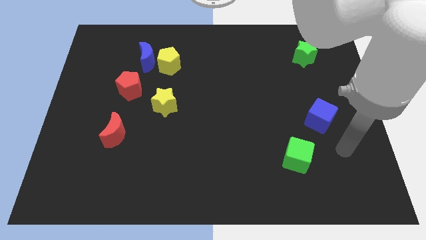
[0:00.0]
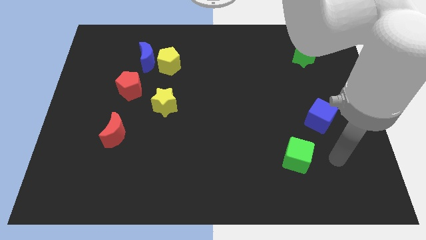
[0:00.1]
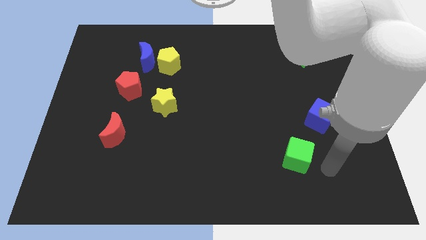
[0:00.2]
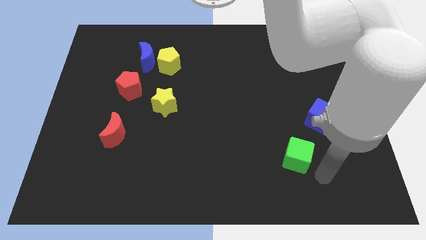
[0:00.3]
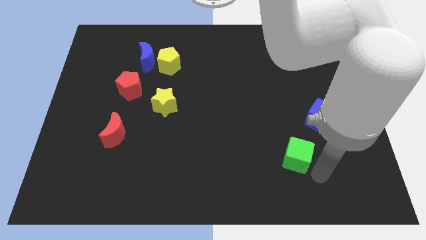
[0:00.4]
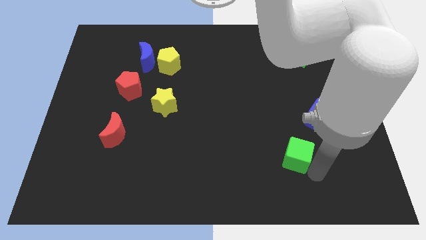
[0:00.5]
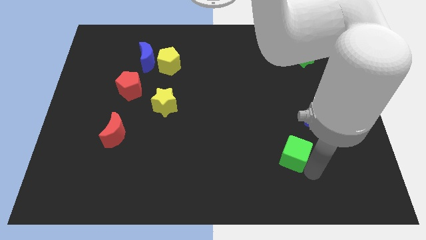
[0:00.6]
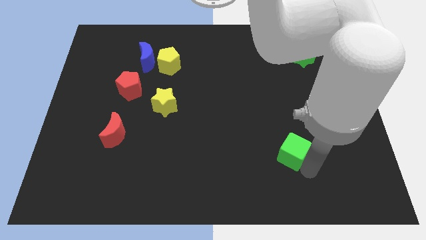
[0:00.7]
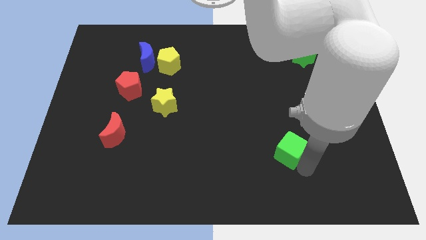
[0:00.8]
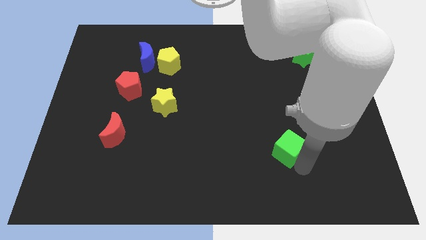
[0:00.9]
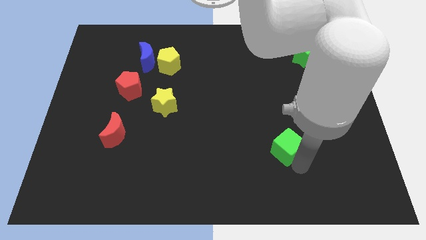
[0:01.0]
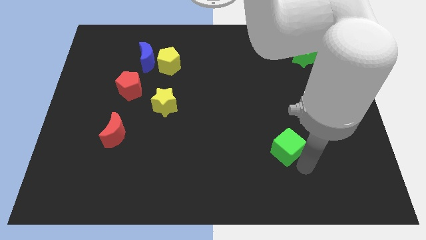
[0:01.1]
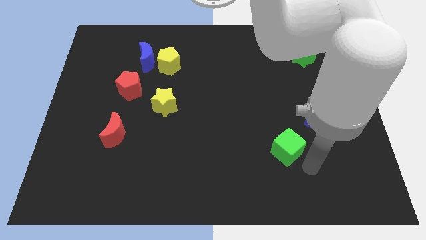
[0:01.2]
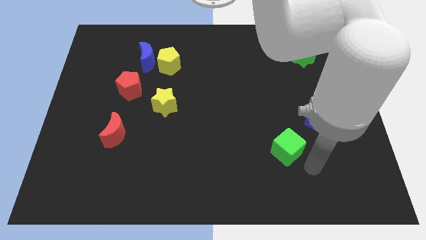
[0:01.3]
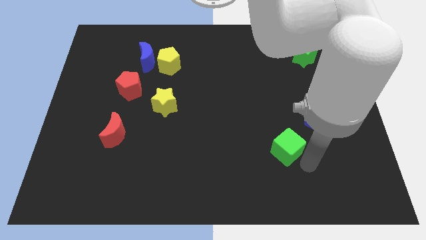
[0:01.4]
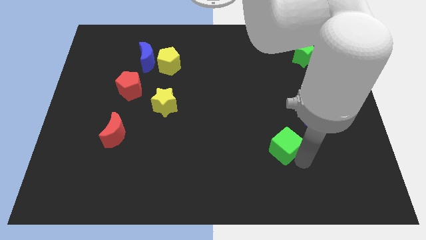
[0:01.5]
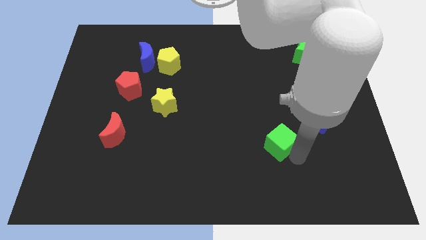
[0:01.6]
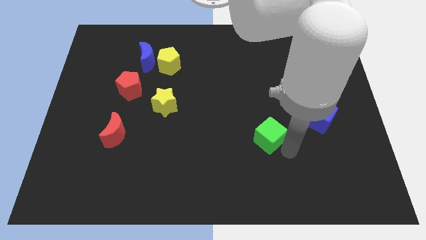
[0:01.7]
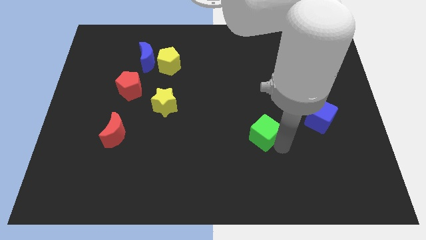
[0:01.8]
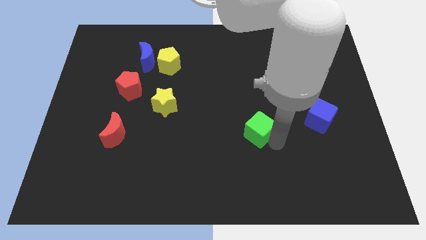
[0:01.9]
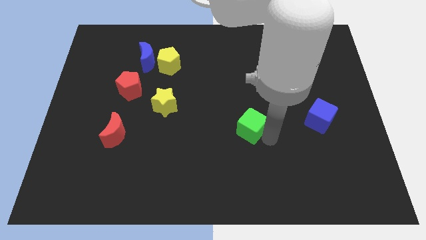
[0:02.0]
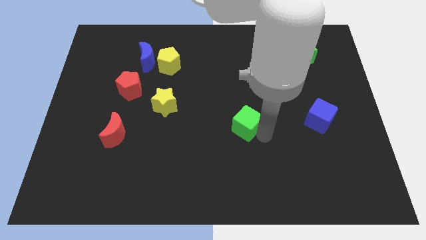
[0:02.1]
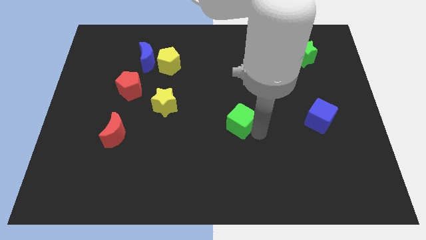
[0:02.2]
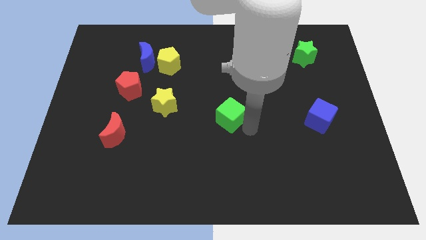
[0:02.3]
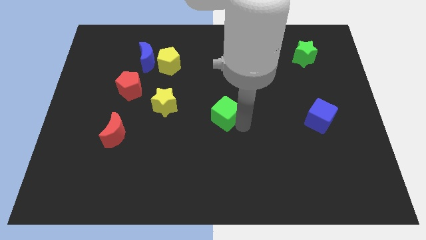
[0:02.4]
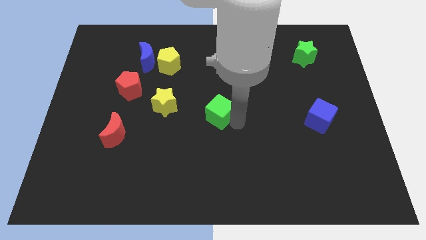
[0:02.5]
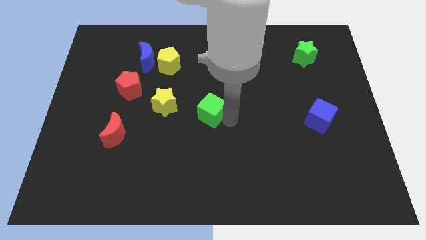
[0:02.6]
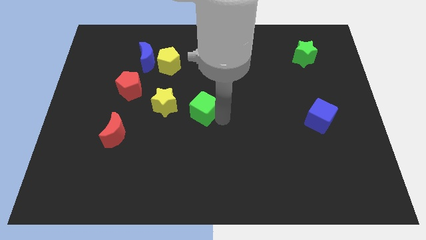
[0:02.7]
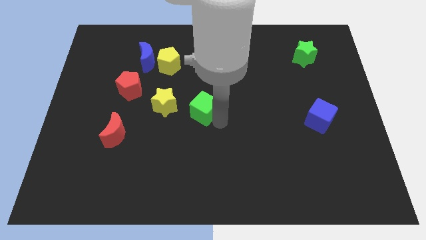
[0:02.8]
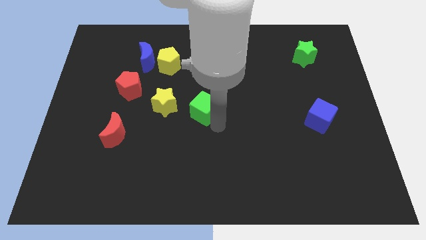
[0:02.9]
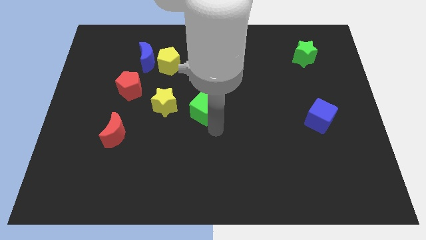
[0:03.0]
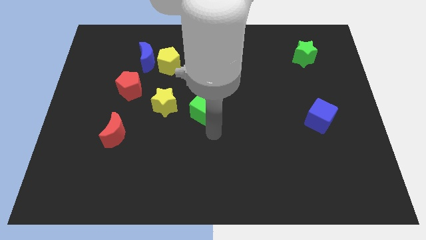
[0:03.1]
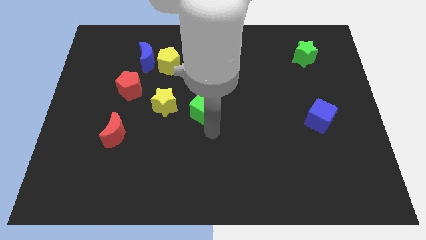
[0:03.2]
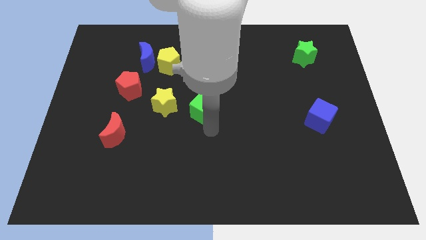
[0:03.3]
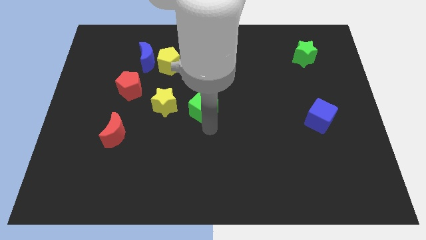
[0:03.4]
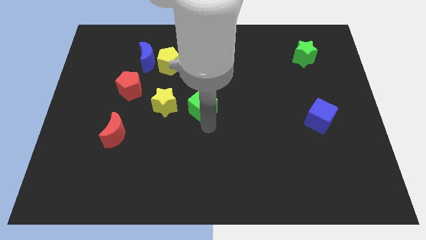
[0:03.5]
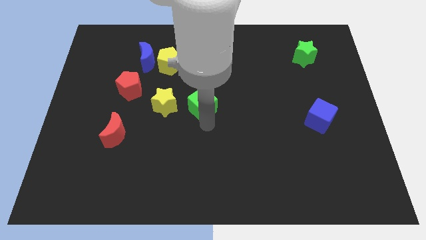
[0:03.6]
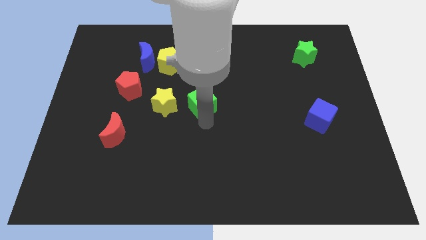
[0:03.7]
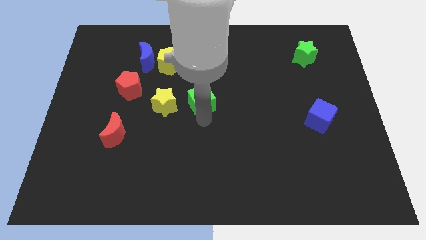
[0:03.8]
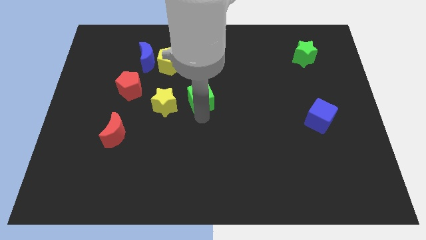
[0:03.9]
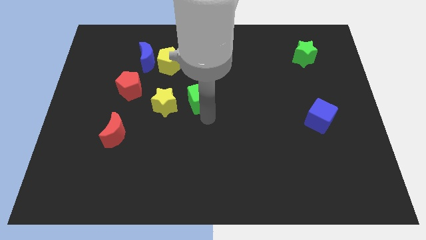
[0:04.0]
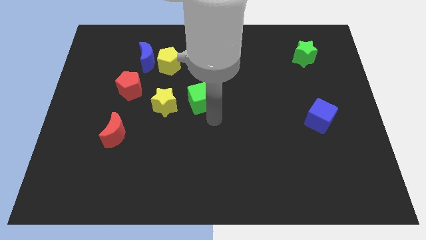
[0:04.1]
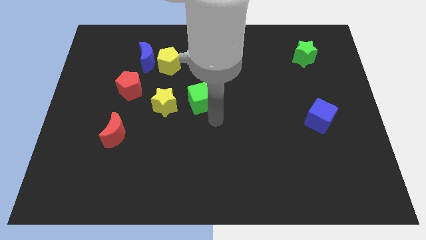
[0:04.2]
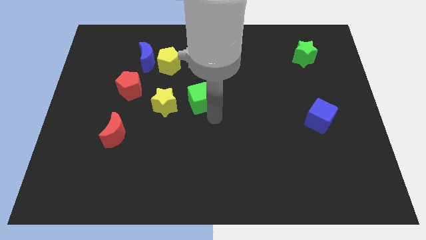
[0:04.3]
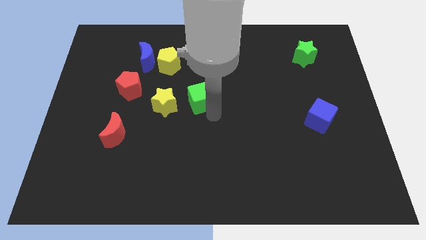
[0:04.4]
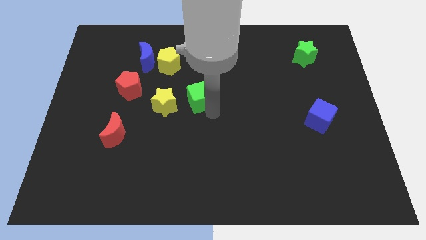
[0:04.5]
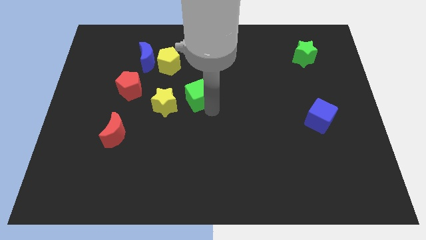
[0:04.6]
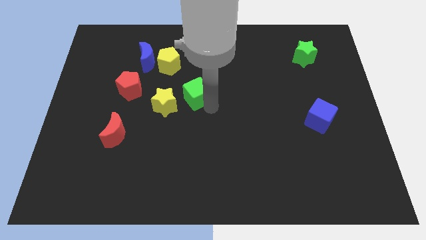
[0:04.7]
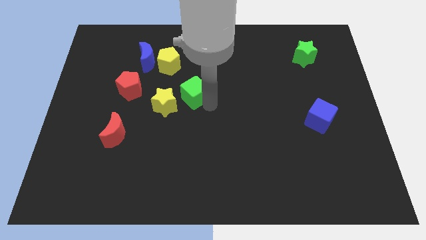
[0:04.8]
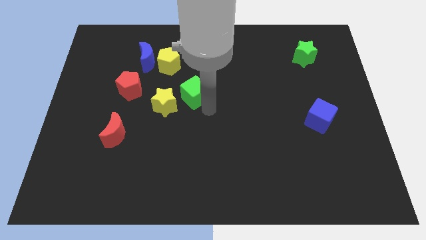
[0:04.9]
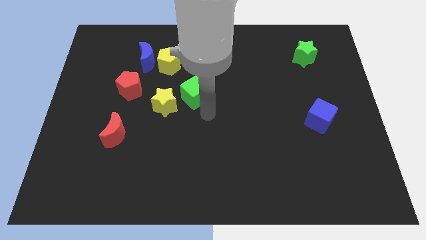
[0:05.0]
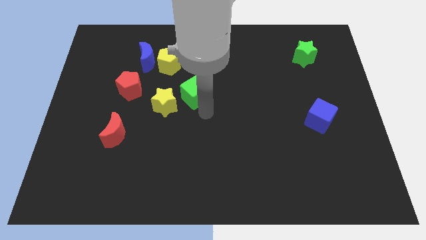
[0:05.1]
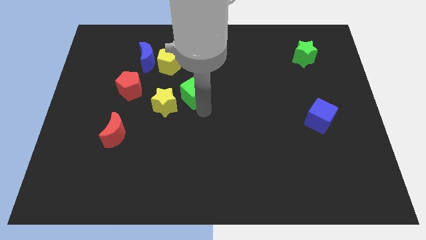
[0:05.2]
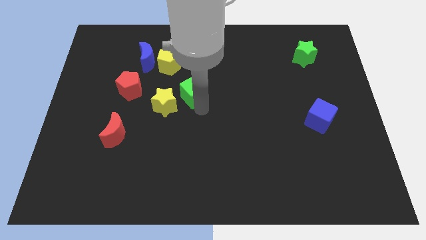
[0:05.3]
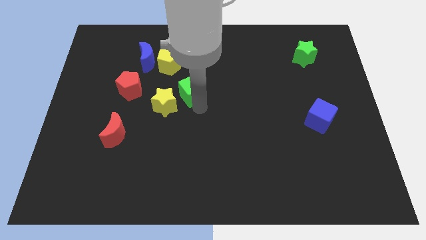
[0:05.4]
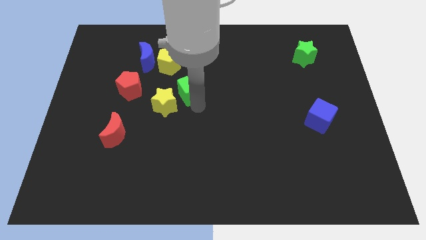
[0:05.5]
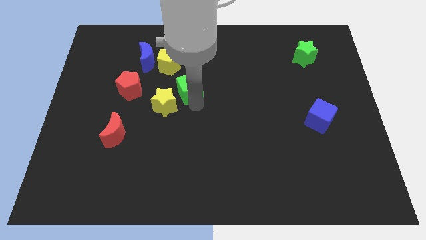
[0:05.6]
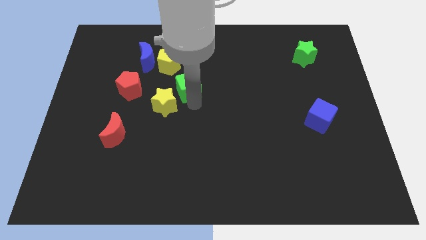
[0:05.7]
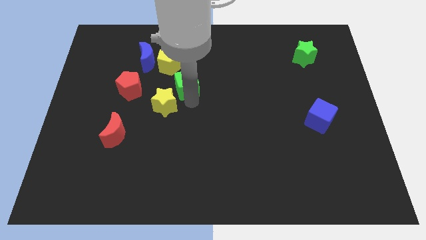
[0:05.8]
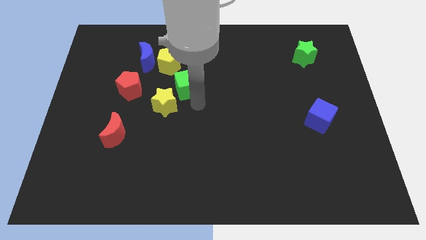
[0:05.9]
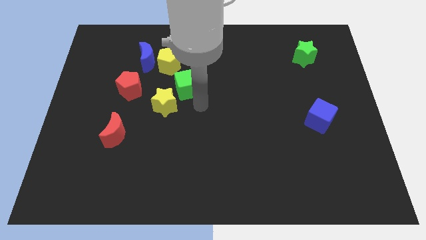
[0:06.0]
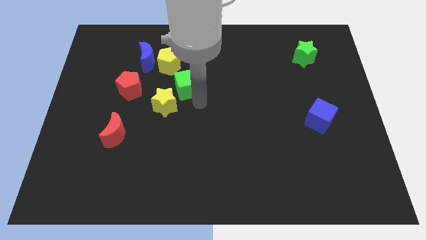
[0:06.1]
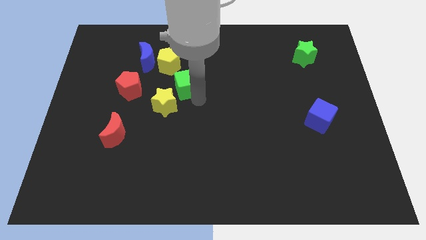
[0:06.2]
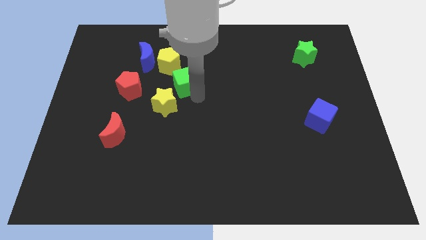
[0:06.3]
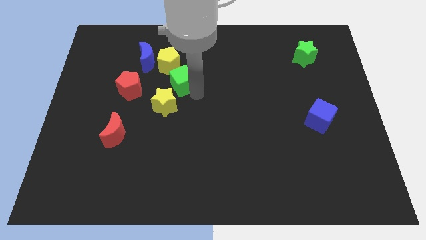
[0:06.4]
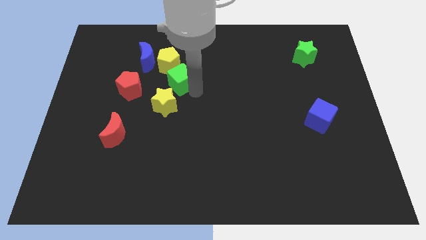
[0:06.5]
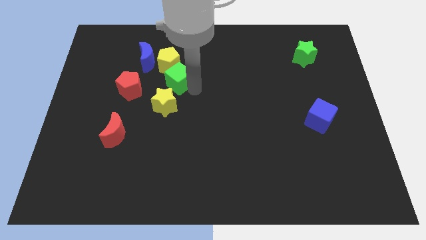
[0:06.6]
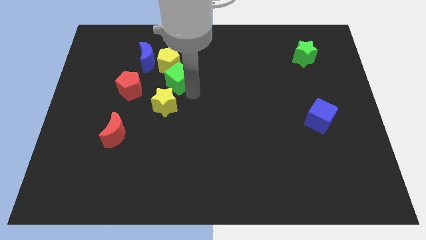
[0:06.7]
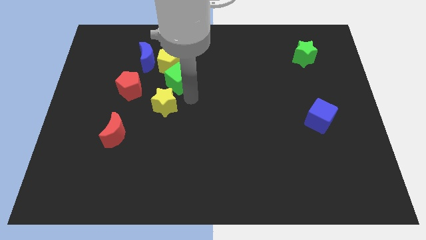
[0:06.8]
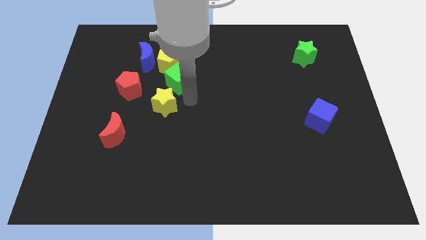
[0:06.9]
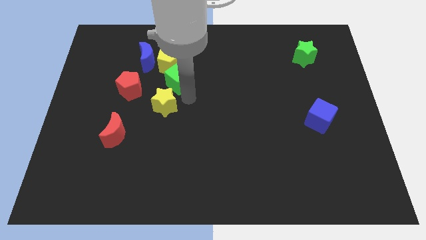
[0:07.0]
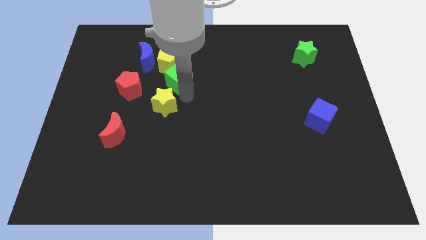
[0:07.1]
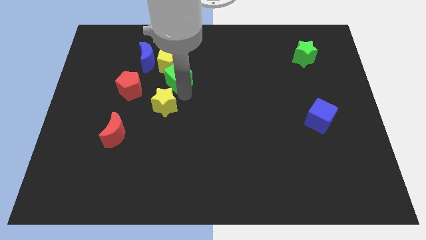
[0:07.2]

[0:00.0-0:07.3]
move the green cube next to the yellow pentagon

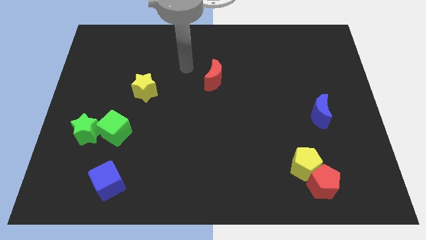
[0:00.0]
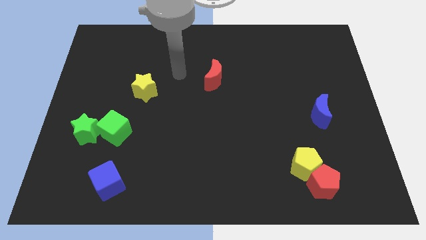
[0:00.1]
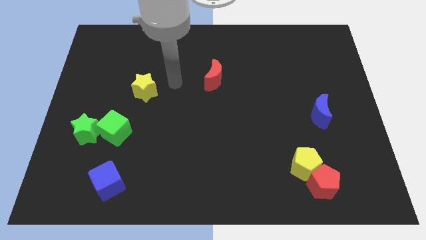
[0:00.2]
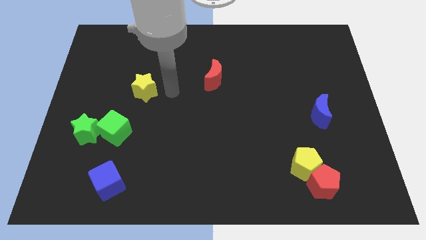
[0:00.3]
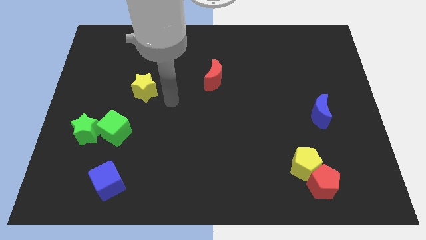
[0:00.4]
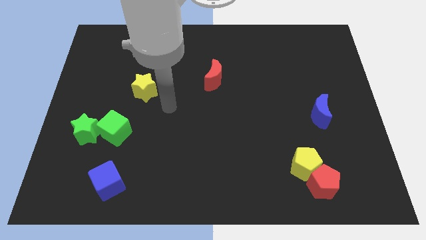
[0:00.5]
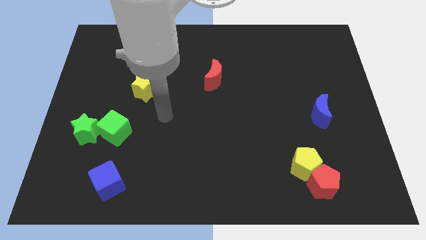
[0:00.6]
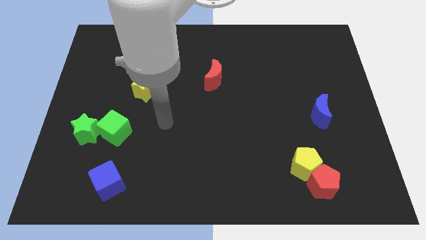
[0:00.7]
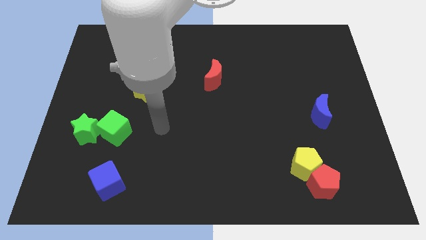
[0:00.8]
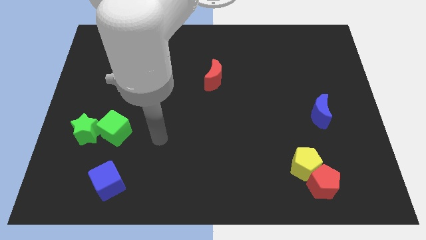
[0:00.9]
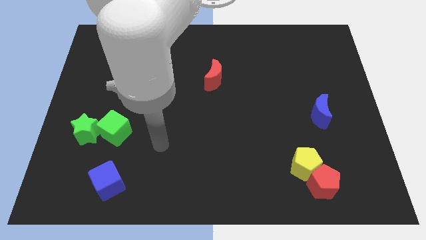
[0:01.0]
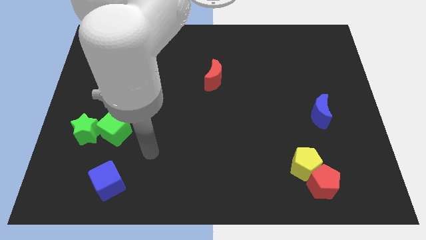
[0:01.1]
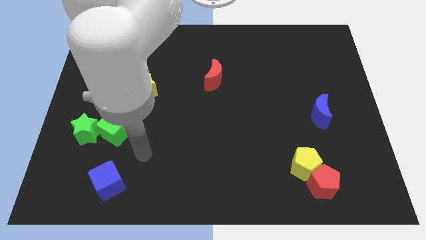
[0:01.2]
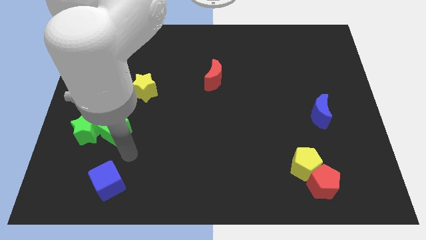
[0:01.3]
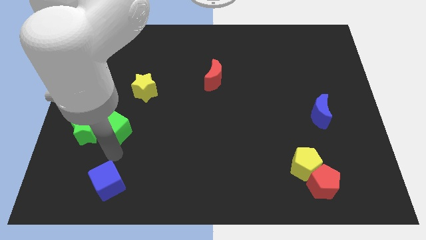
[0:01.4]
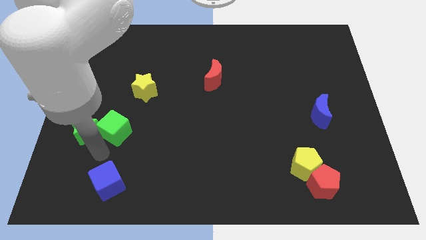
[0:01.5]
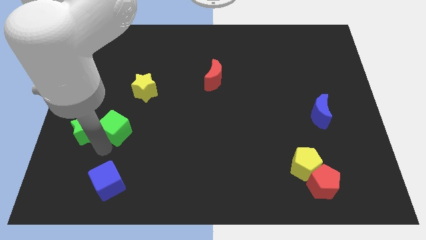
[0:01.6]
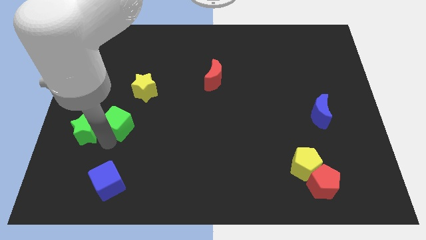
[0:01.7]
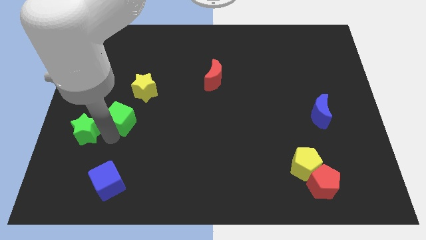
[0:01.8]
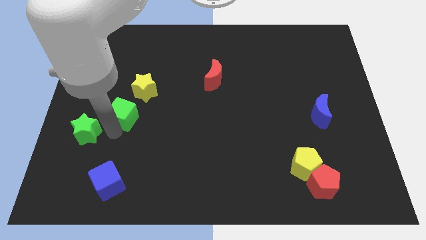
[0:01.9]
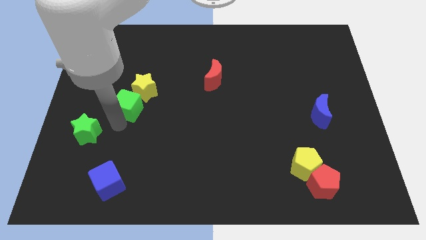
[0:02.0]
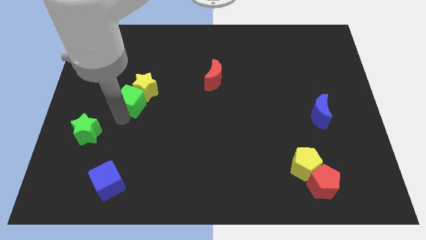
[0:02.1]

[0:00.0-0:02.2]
push the green cube next to the yellow star
